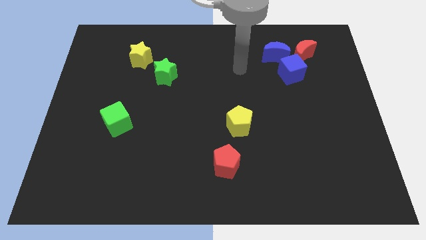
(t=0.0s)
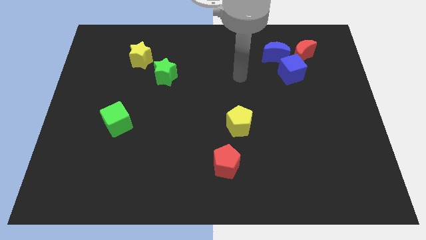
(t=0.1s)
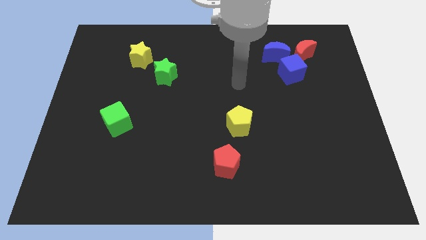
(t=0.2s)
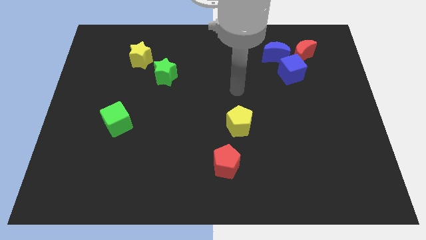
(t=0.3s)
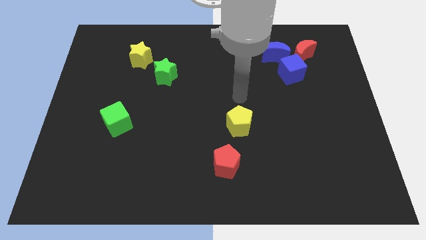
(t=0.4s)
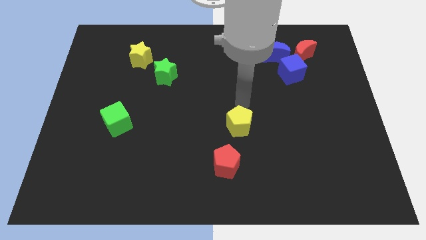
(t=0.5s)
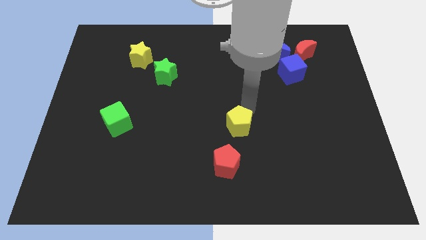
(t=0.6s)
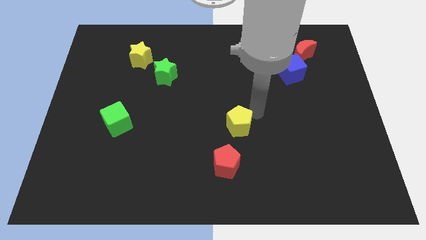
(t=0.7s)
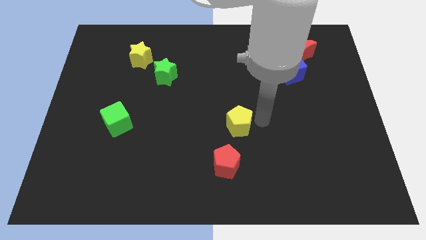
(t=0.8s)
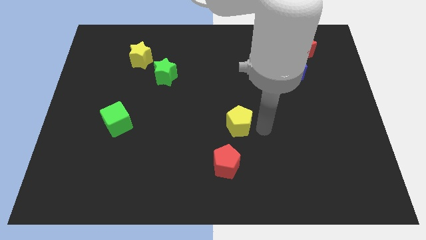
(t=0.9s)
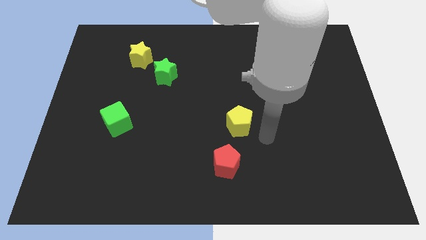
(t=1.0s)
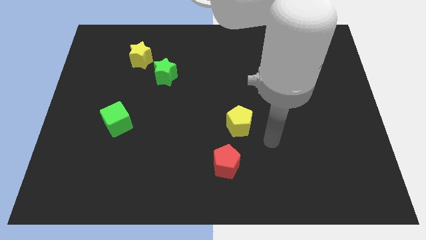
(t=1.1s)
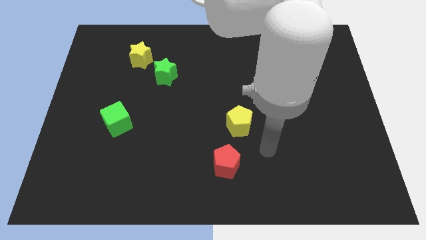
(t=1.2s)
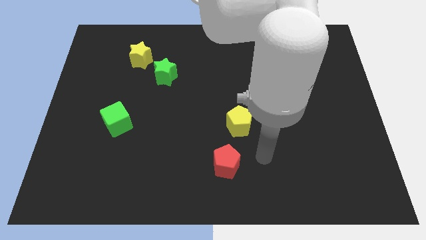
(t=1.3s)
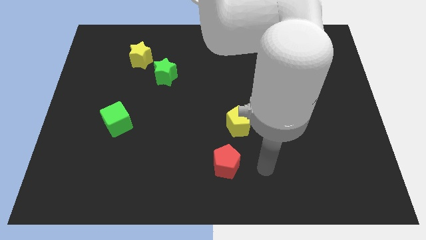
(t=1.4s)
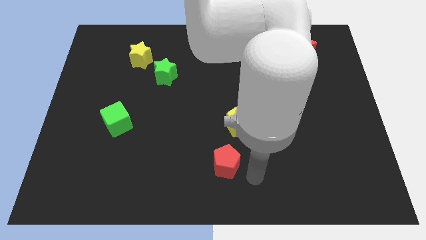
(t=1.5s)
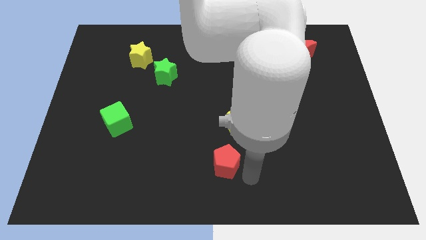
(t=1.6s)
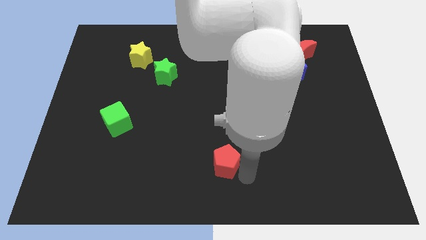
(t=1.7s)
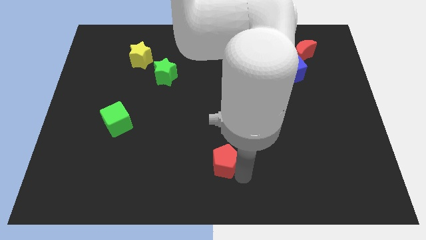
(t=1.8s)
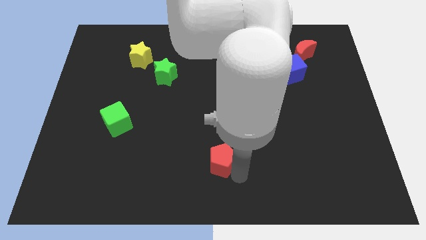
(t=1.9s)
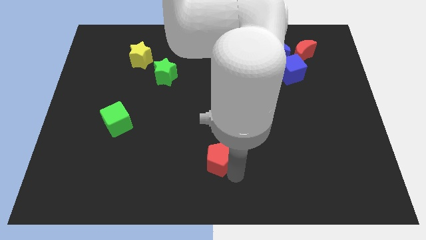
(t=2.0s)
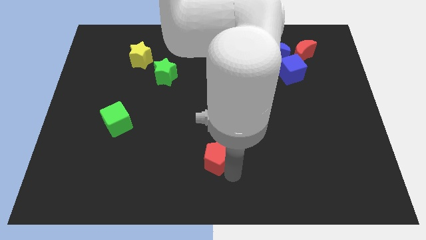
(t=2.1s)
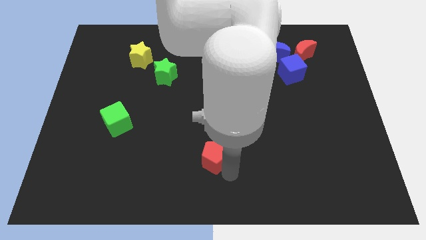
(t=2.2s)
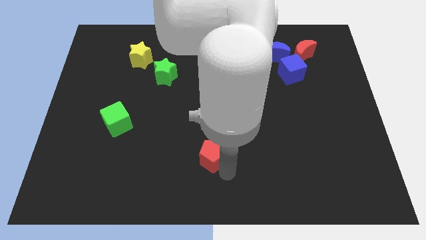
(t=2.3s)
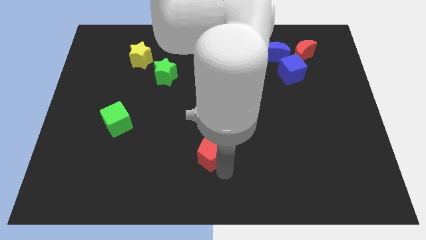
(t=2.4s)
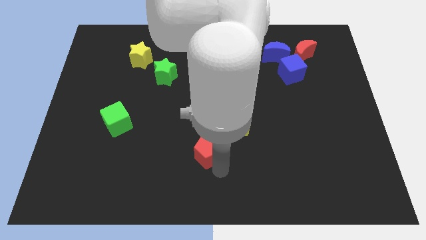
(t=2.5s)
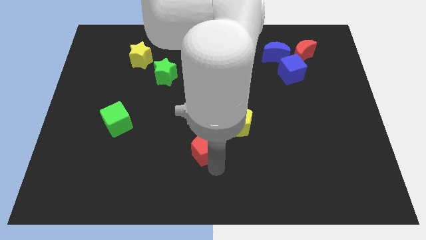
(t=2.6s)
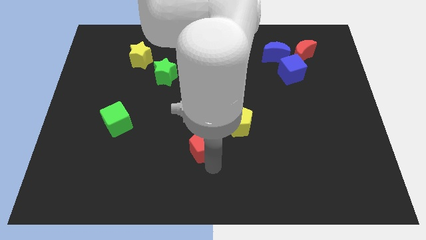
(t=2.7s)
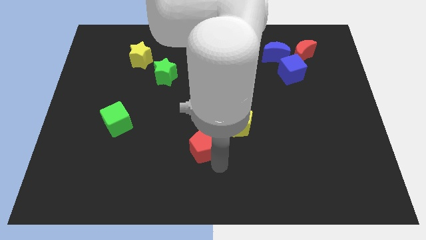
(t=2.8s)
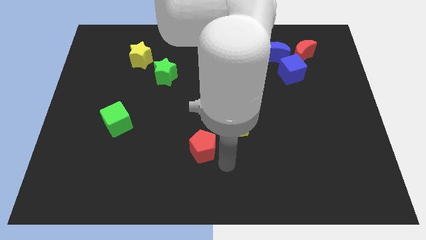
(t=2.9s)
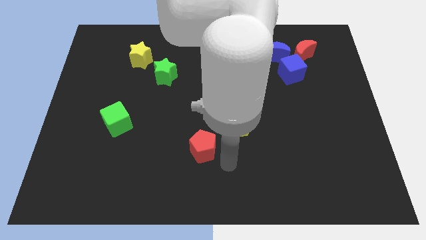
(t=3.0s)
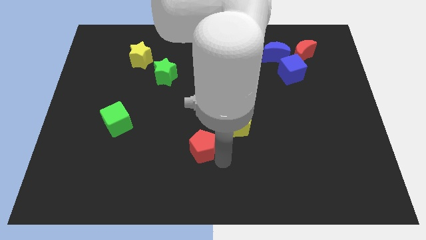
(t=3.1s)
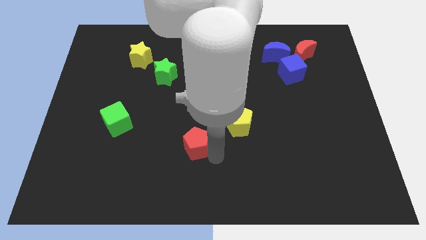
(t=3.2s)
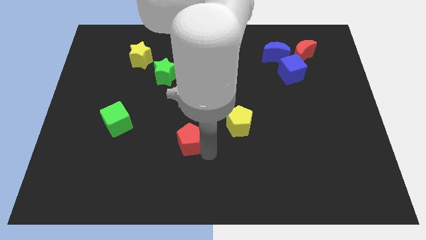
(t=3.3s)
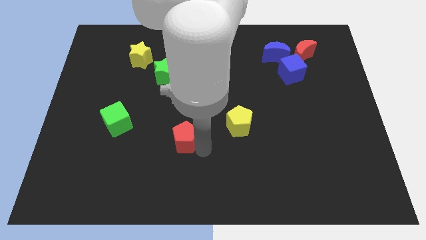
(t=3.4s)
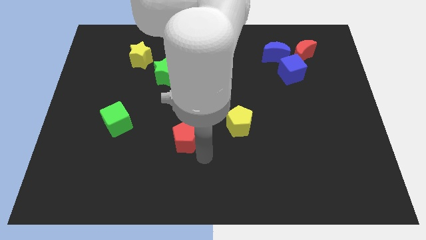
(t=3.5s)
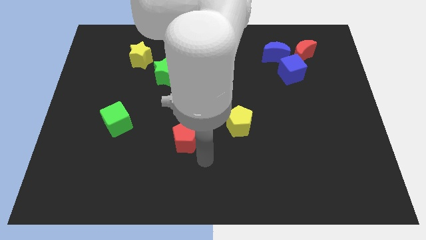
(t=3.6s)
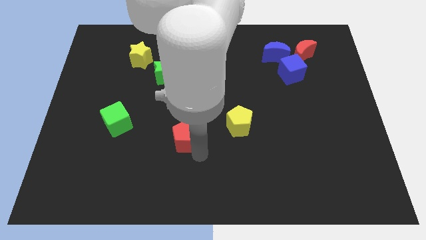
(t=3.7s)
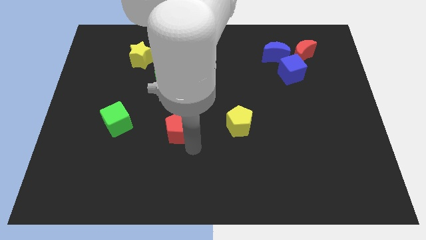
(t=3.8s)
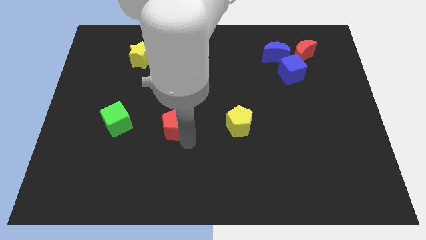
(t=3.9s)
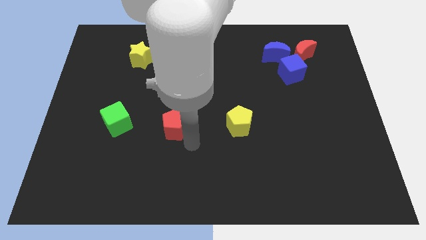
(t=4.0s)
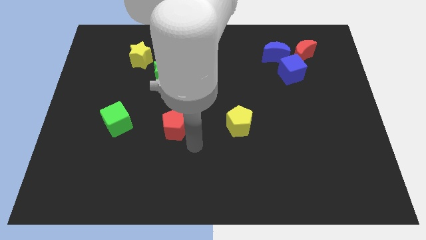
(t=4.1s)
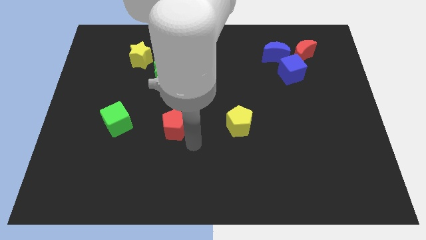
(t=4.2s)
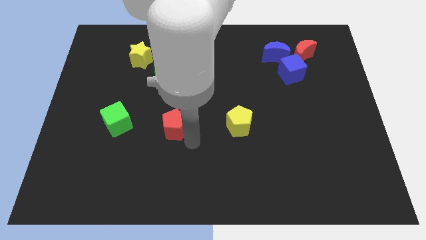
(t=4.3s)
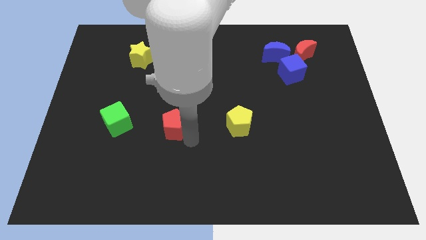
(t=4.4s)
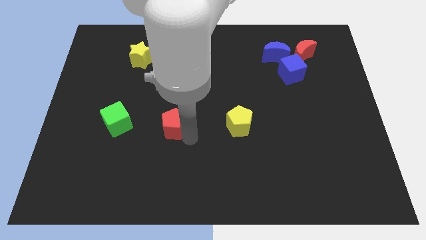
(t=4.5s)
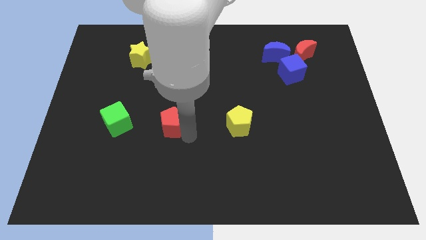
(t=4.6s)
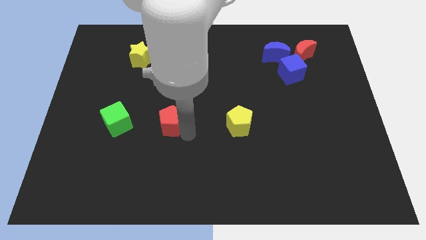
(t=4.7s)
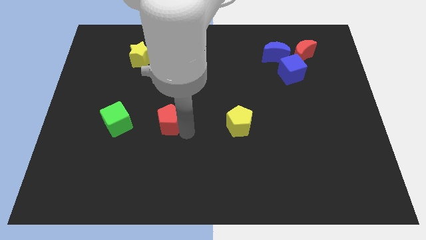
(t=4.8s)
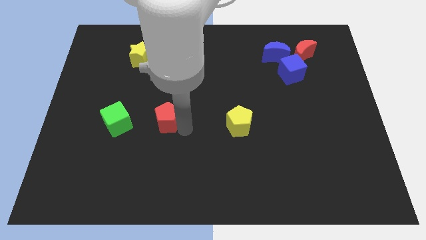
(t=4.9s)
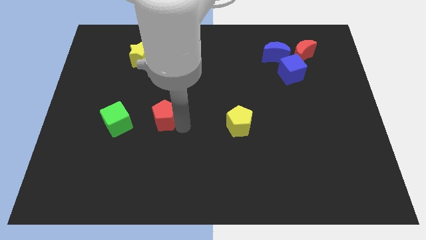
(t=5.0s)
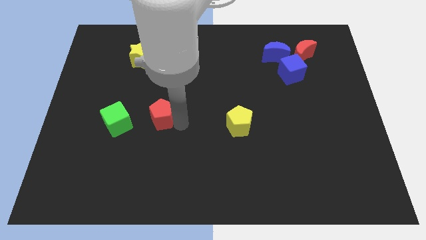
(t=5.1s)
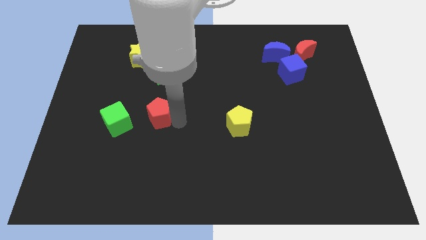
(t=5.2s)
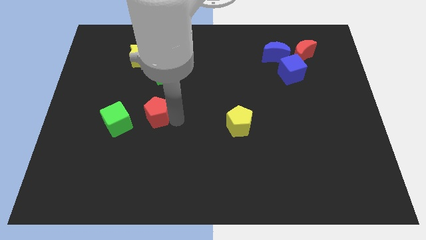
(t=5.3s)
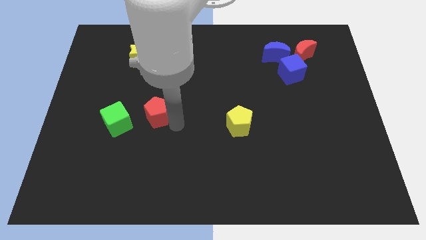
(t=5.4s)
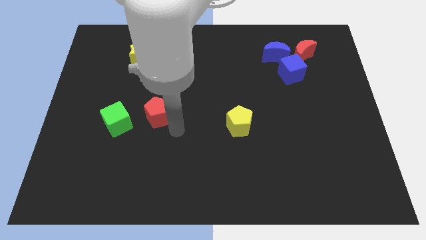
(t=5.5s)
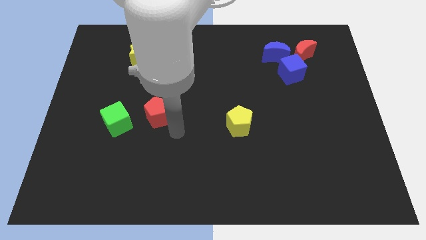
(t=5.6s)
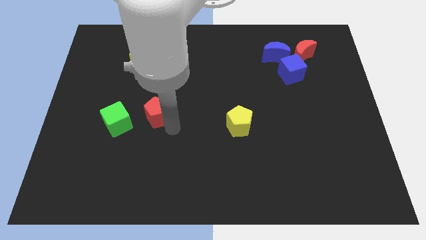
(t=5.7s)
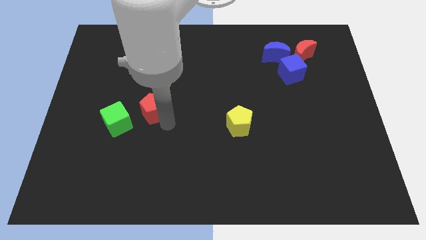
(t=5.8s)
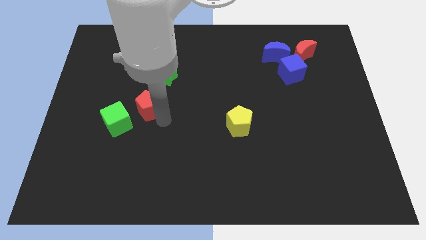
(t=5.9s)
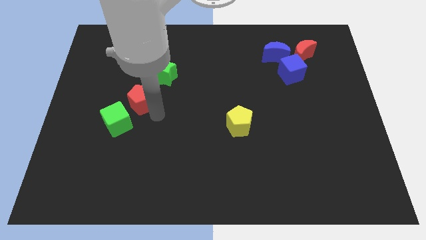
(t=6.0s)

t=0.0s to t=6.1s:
push the red pentagon to the top side of the green cube
